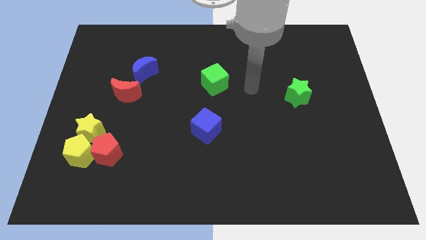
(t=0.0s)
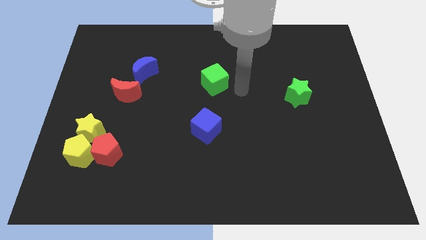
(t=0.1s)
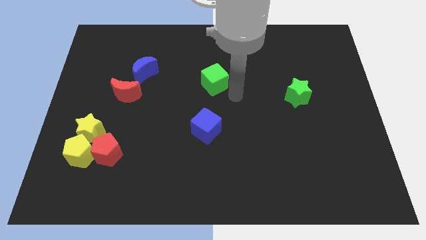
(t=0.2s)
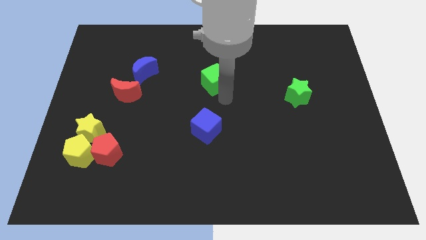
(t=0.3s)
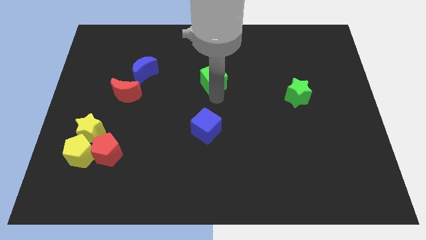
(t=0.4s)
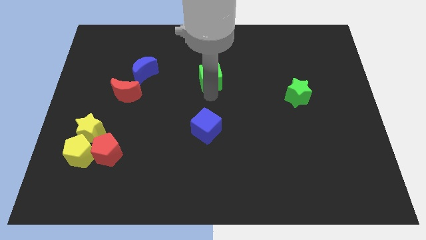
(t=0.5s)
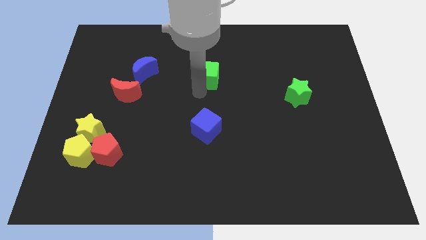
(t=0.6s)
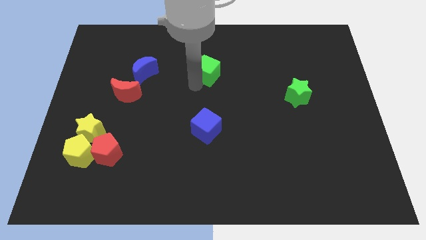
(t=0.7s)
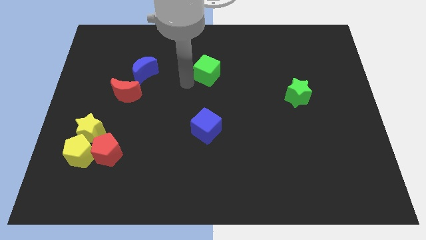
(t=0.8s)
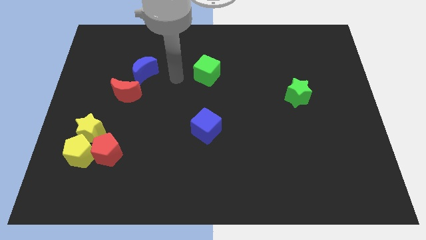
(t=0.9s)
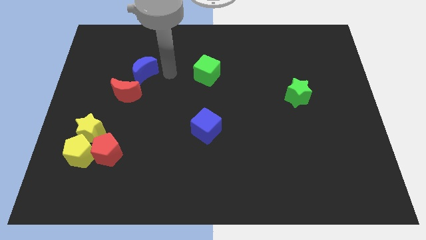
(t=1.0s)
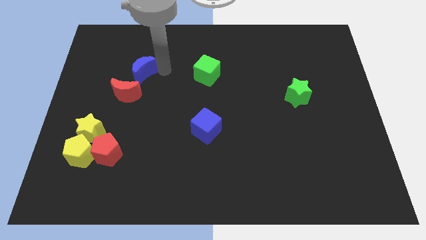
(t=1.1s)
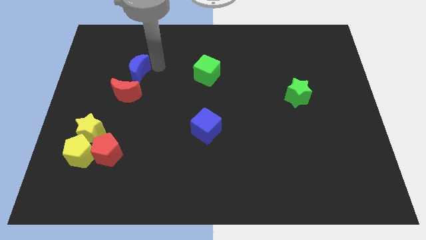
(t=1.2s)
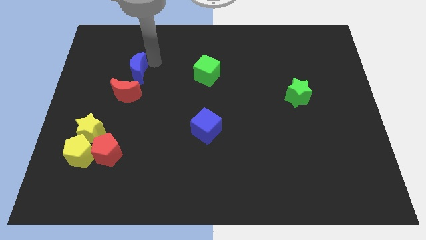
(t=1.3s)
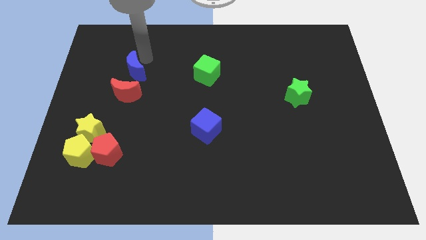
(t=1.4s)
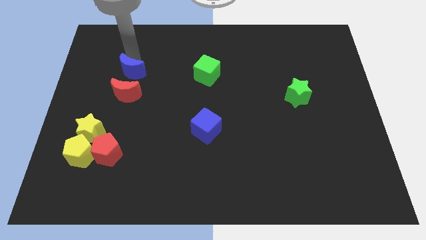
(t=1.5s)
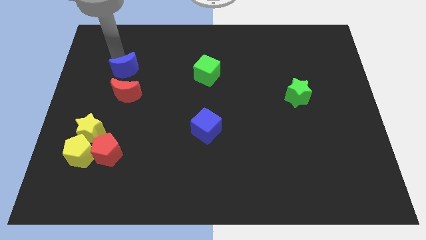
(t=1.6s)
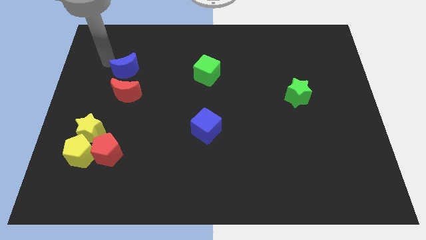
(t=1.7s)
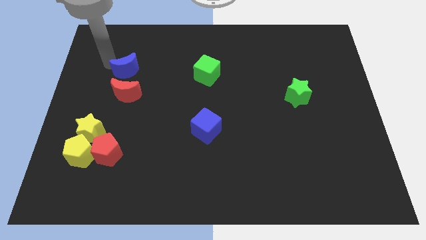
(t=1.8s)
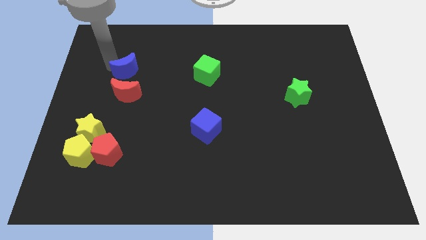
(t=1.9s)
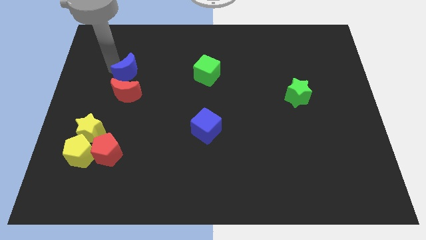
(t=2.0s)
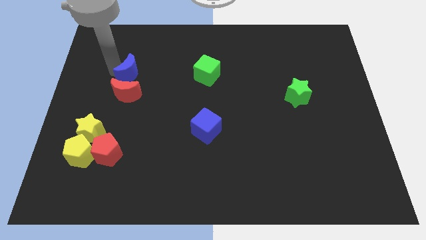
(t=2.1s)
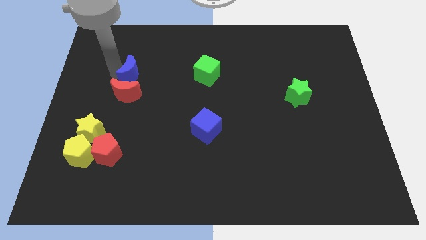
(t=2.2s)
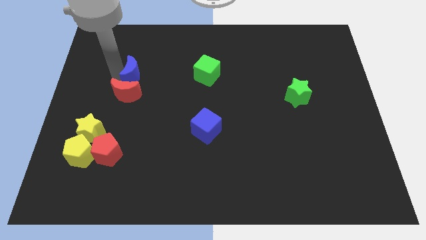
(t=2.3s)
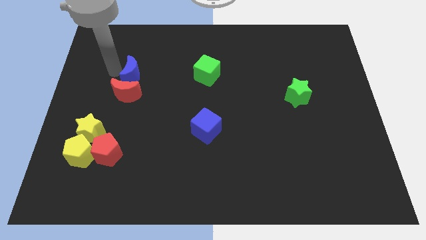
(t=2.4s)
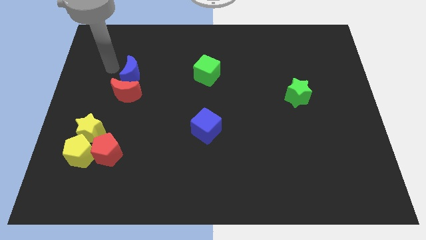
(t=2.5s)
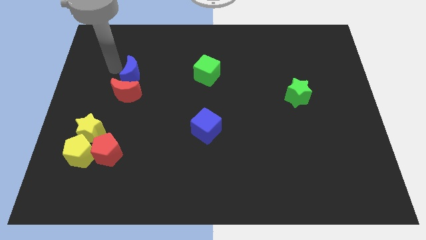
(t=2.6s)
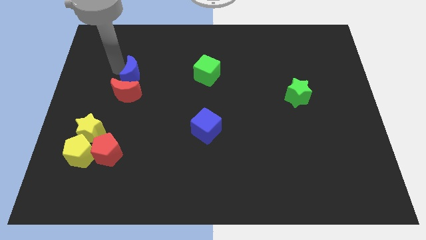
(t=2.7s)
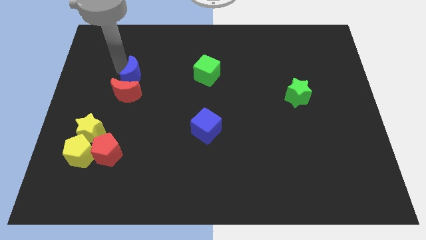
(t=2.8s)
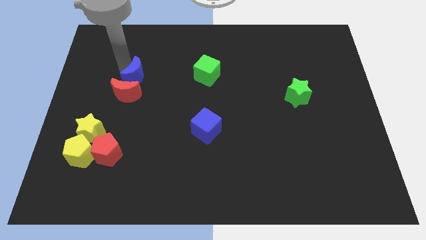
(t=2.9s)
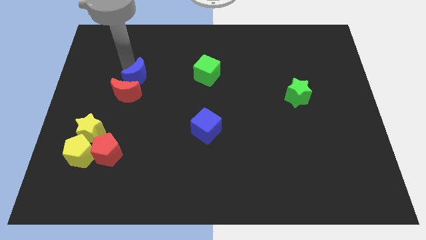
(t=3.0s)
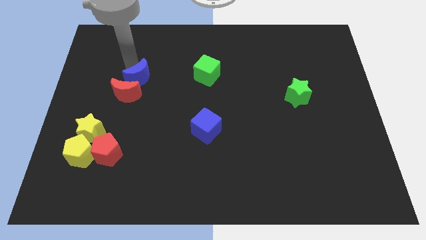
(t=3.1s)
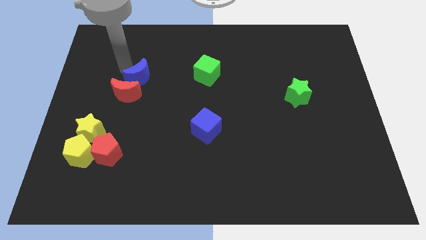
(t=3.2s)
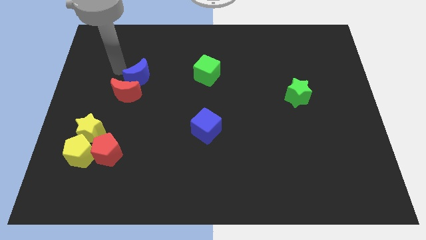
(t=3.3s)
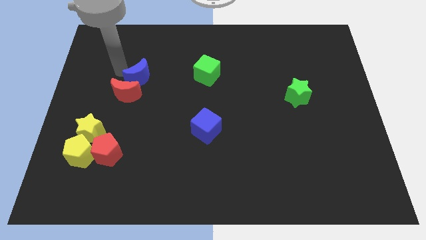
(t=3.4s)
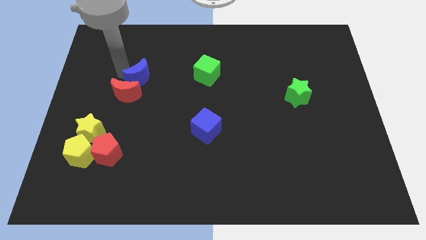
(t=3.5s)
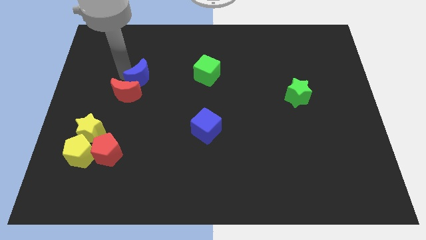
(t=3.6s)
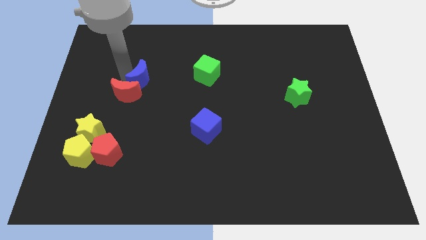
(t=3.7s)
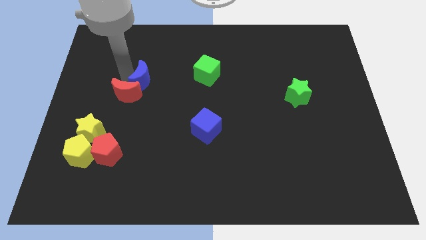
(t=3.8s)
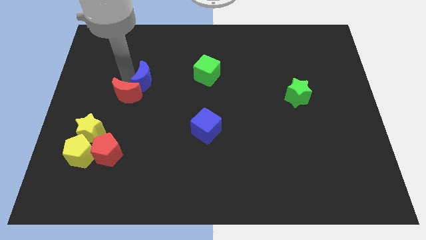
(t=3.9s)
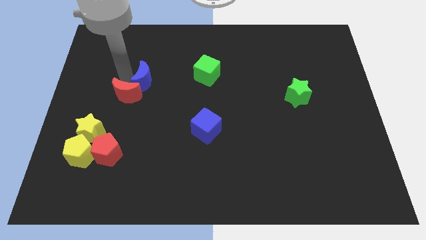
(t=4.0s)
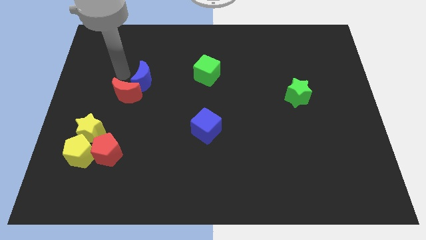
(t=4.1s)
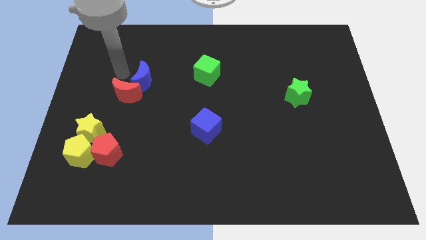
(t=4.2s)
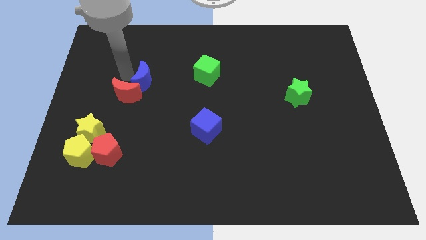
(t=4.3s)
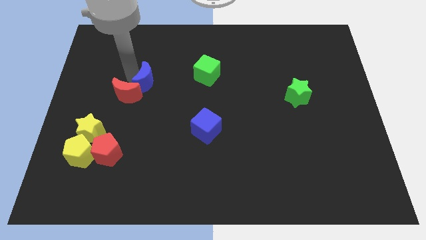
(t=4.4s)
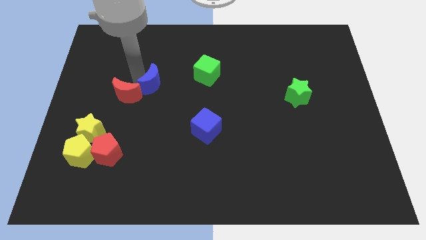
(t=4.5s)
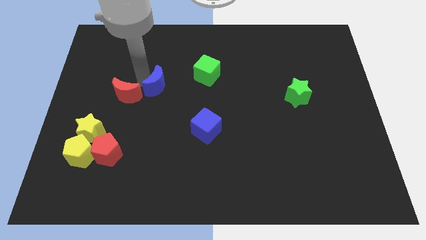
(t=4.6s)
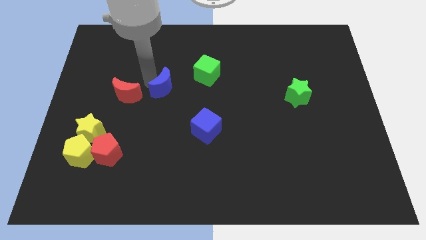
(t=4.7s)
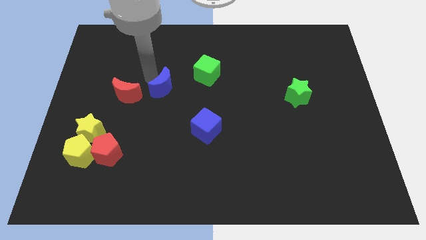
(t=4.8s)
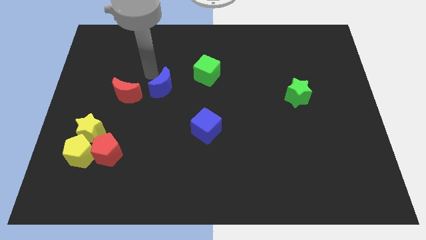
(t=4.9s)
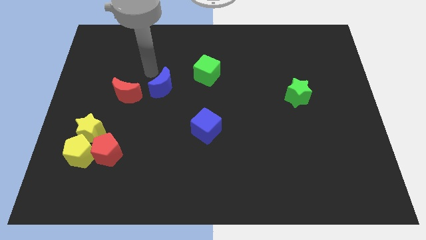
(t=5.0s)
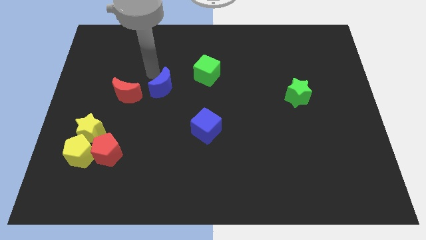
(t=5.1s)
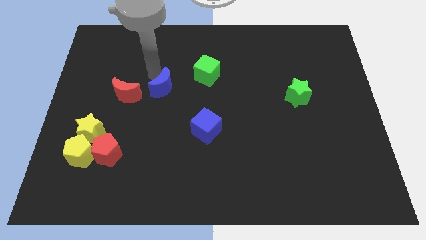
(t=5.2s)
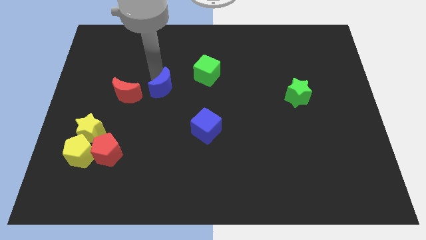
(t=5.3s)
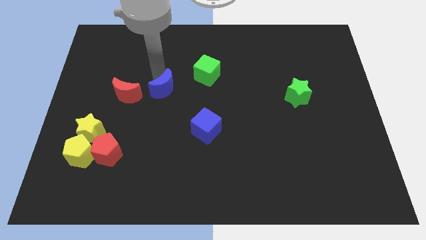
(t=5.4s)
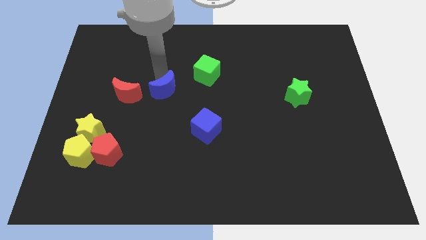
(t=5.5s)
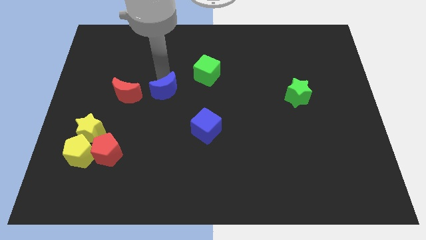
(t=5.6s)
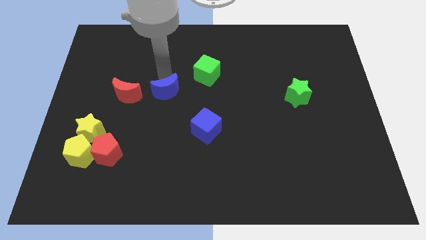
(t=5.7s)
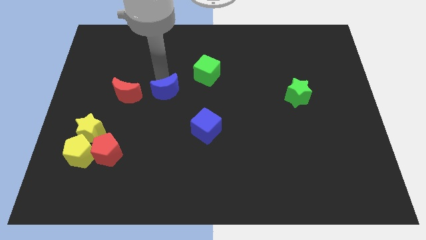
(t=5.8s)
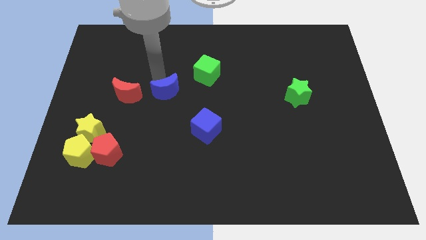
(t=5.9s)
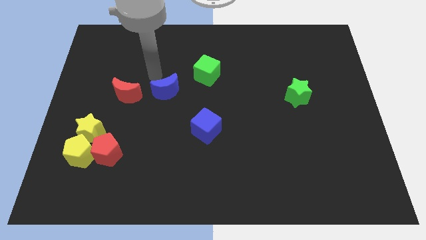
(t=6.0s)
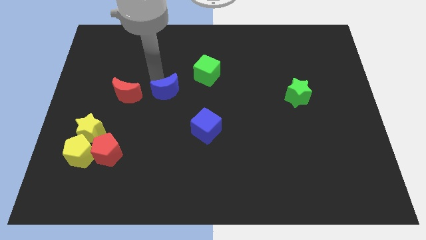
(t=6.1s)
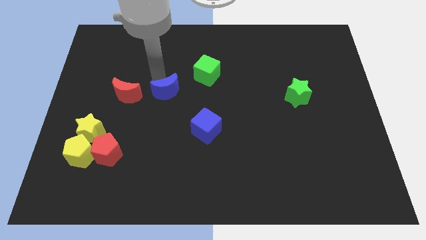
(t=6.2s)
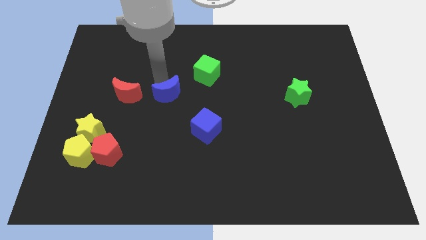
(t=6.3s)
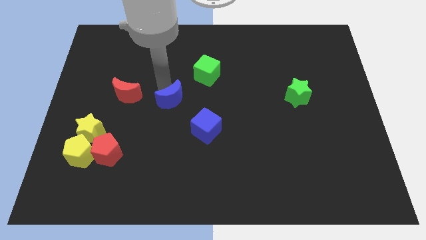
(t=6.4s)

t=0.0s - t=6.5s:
push the blue moon to the top left of the blue cube
